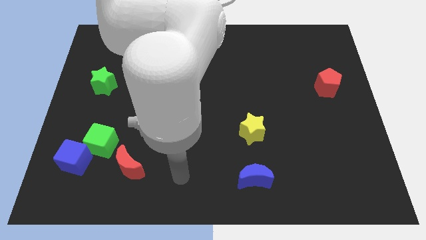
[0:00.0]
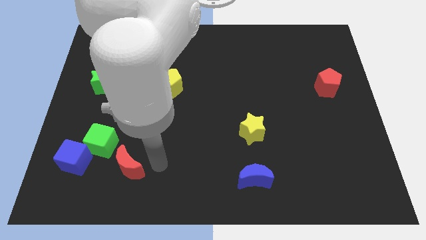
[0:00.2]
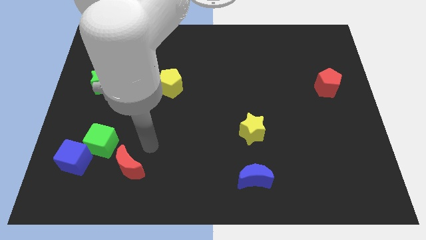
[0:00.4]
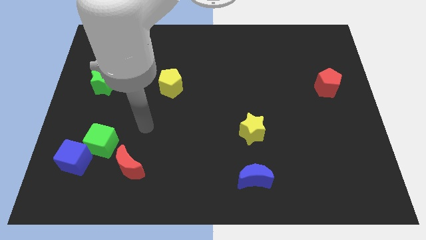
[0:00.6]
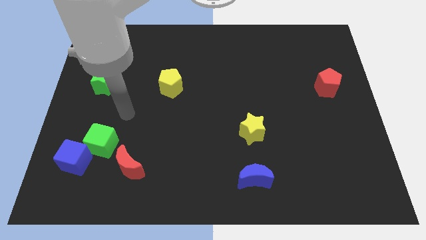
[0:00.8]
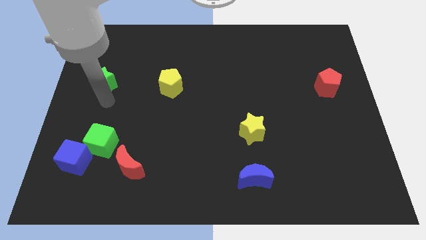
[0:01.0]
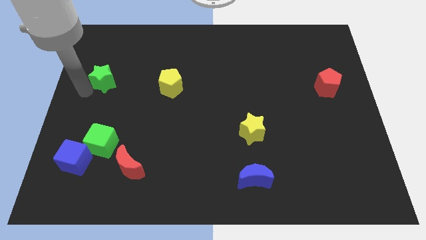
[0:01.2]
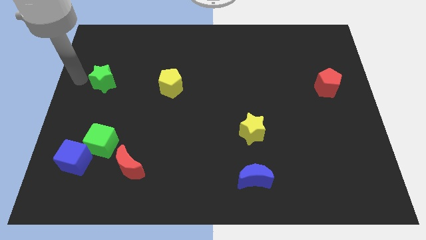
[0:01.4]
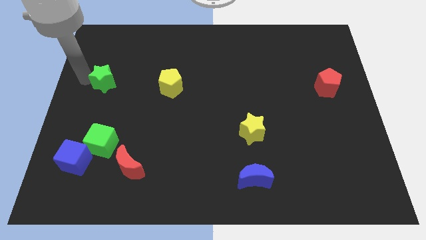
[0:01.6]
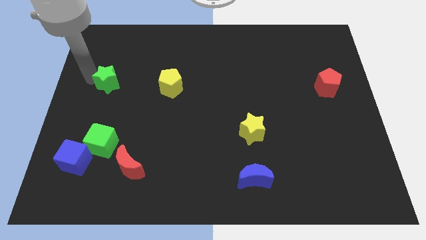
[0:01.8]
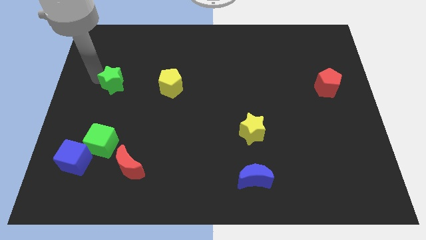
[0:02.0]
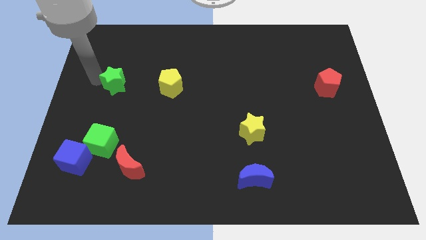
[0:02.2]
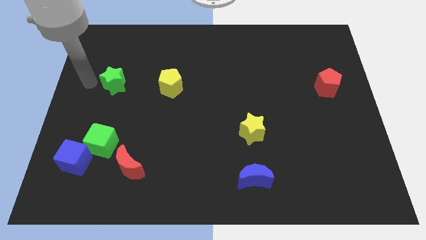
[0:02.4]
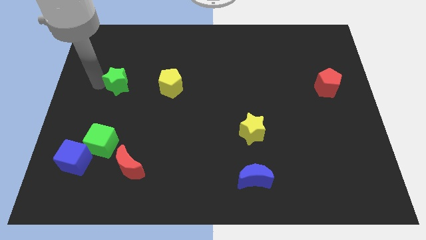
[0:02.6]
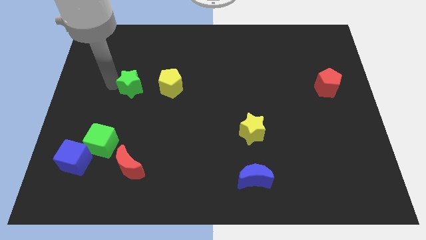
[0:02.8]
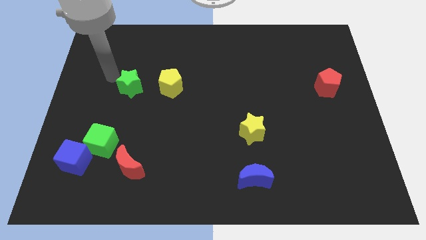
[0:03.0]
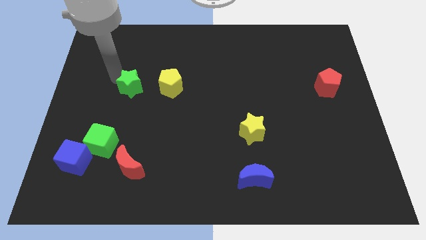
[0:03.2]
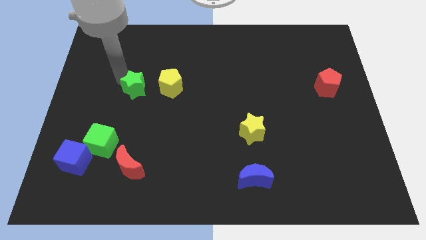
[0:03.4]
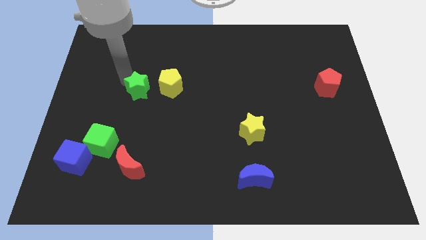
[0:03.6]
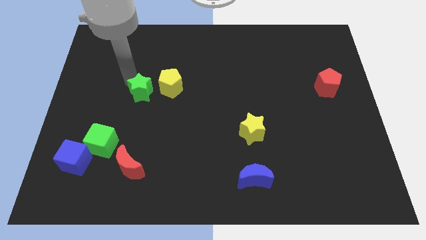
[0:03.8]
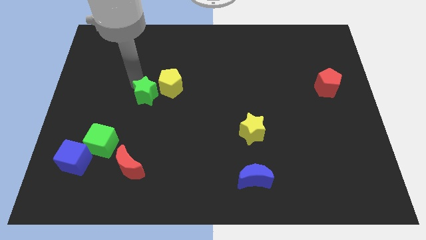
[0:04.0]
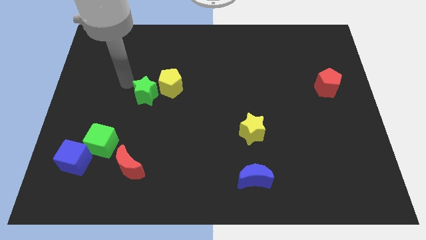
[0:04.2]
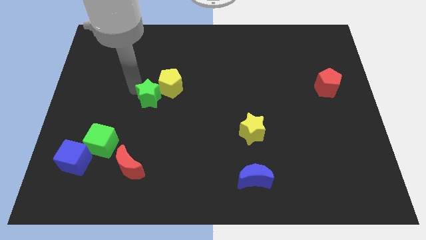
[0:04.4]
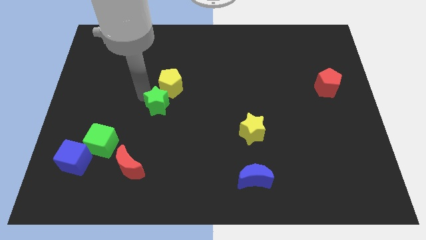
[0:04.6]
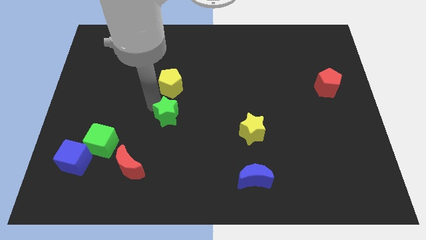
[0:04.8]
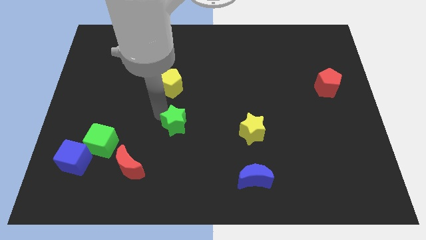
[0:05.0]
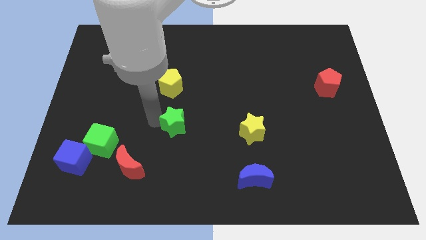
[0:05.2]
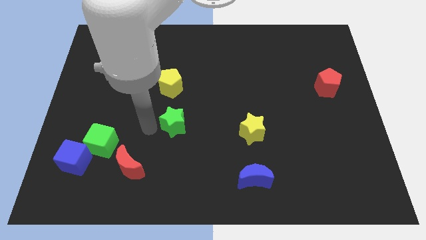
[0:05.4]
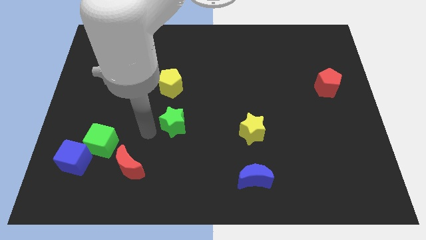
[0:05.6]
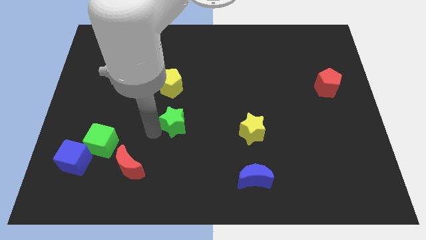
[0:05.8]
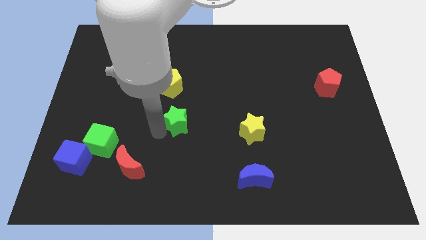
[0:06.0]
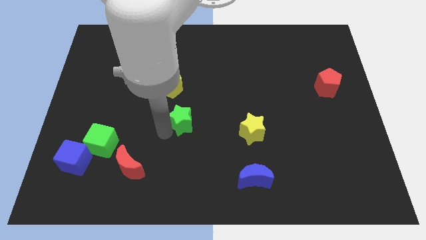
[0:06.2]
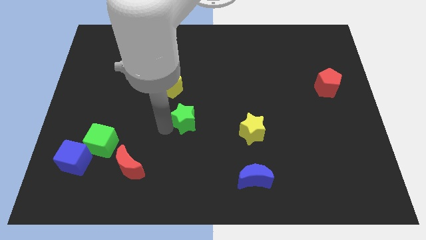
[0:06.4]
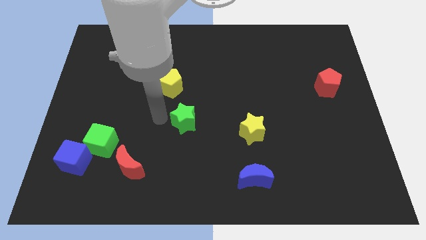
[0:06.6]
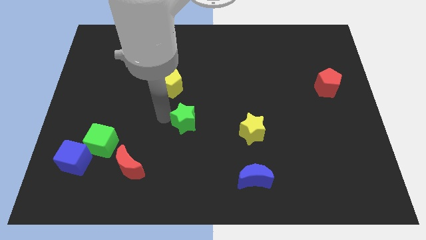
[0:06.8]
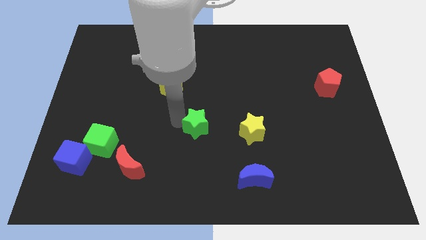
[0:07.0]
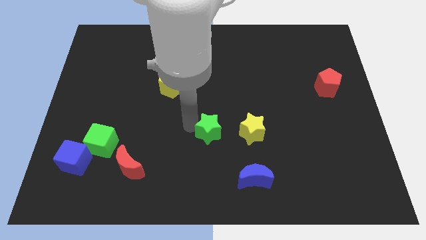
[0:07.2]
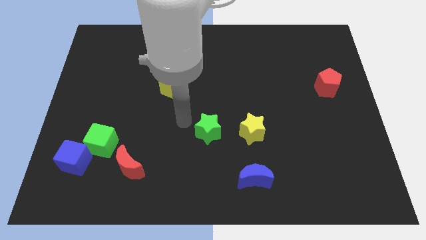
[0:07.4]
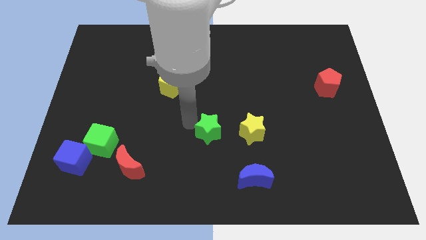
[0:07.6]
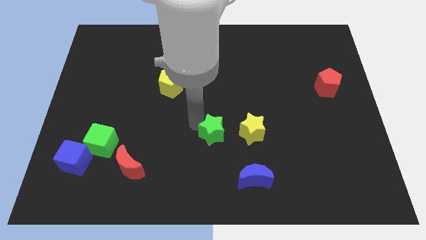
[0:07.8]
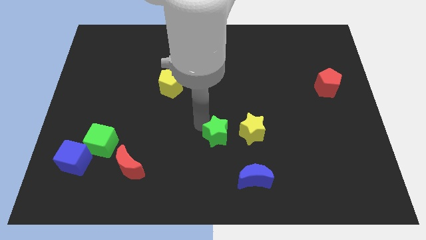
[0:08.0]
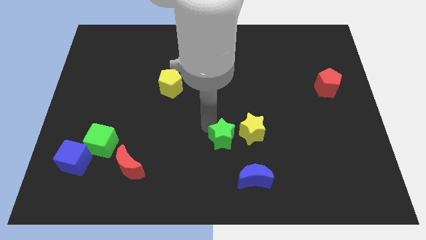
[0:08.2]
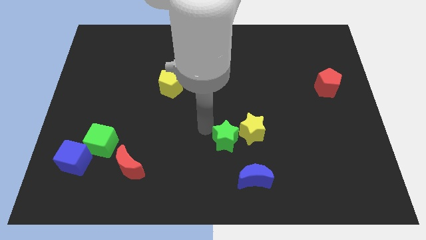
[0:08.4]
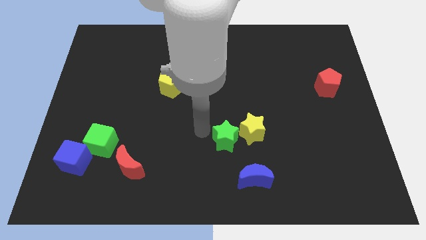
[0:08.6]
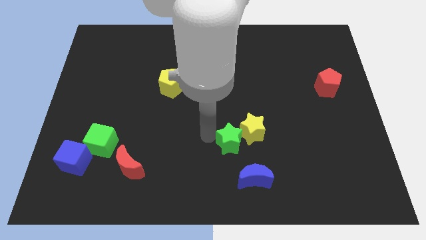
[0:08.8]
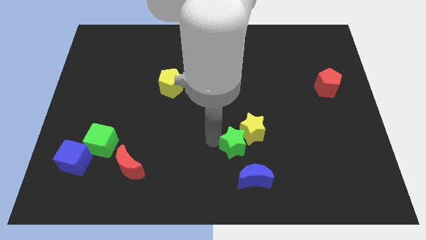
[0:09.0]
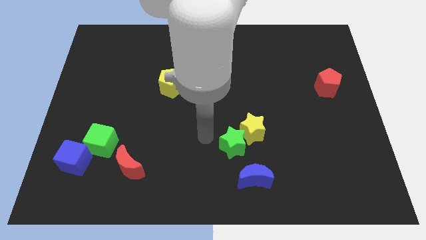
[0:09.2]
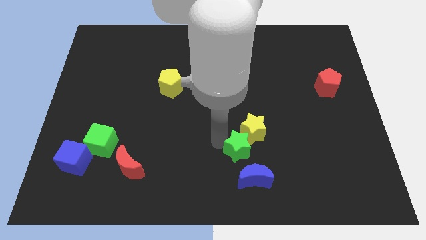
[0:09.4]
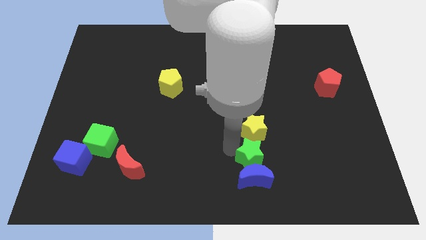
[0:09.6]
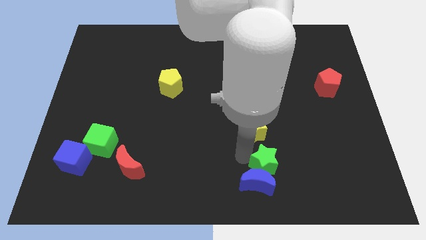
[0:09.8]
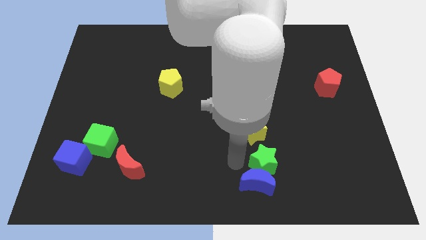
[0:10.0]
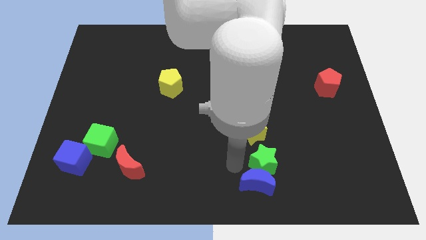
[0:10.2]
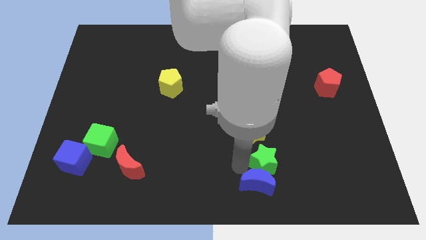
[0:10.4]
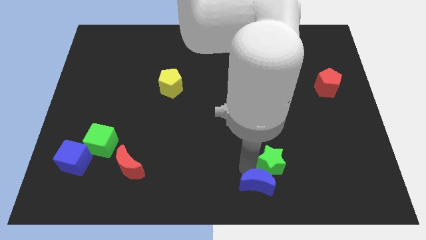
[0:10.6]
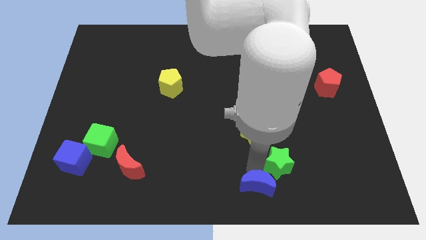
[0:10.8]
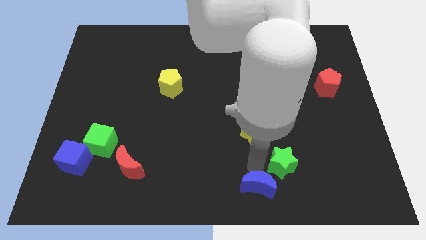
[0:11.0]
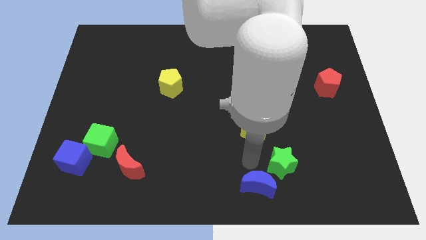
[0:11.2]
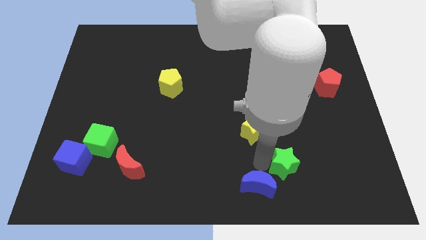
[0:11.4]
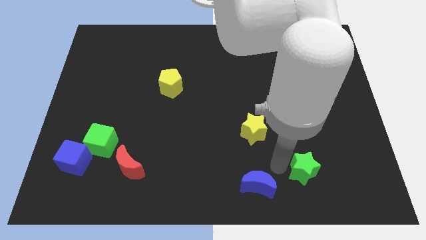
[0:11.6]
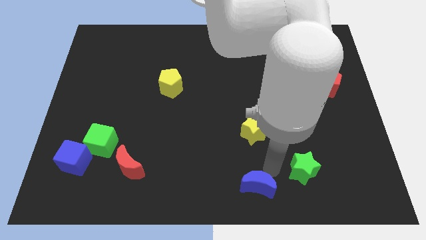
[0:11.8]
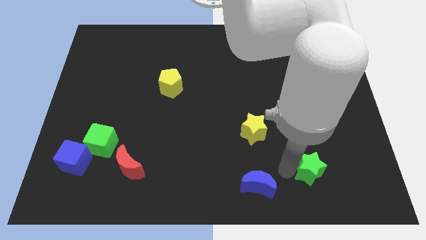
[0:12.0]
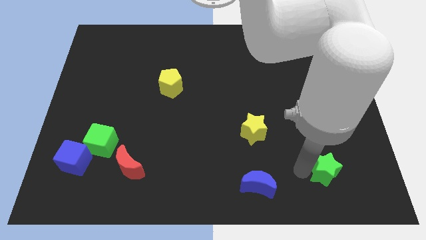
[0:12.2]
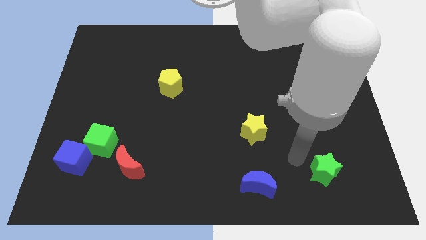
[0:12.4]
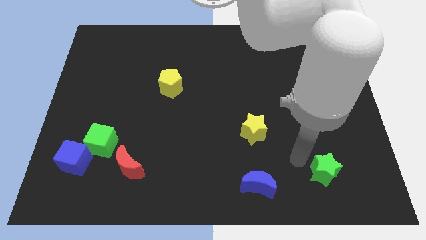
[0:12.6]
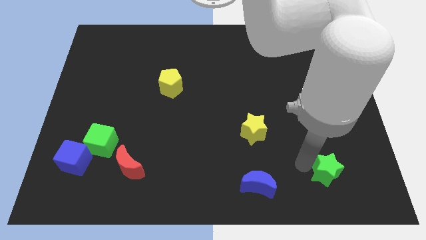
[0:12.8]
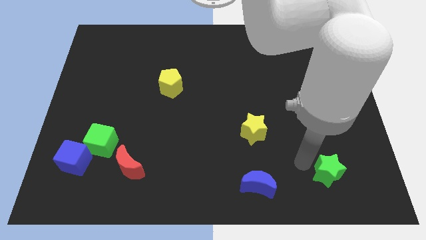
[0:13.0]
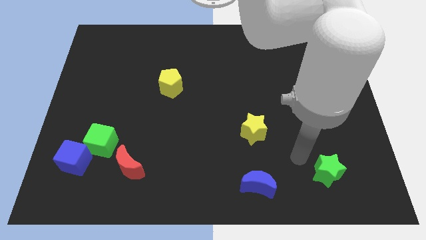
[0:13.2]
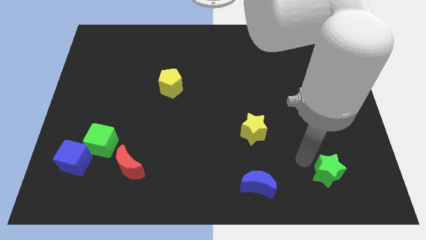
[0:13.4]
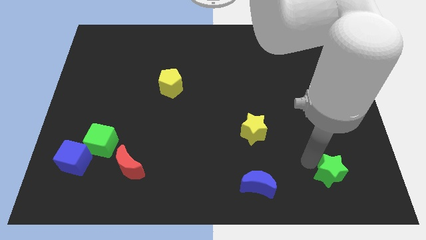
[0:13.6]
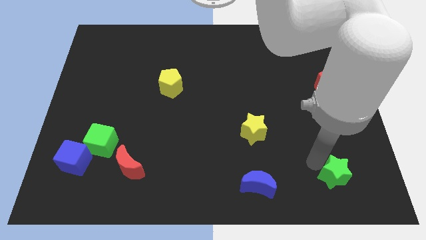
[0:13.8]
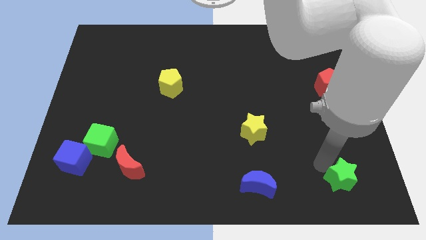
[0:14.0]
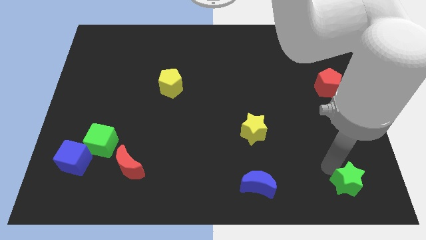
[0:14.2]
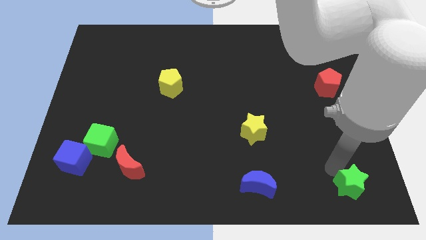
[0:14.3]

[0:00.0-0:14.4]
put the green star to the bottom right
